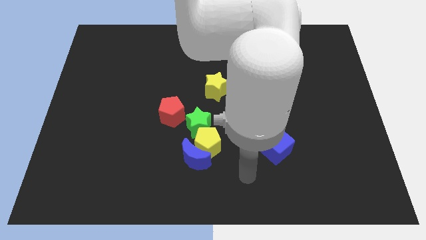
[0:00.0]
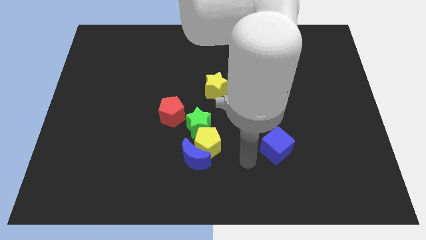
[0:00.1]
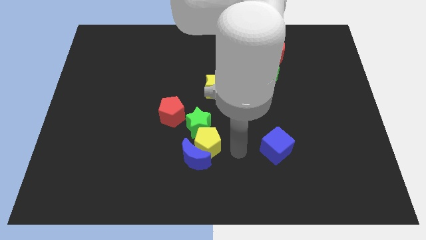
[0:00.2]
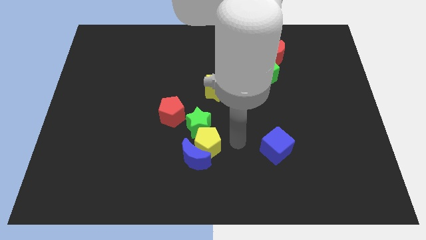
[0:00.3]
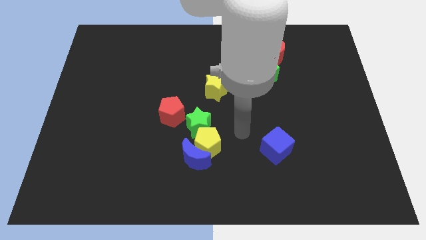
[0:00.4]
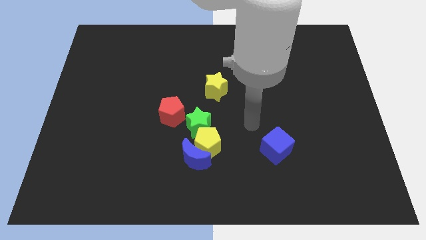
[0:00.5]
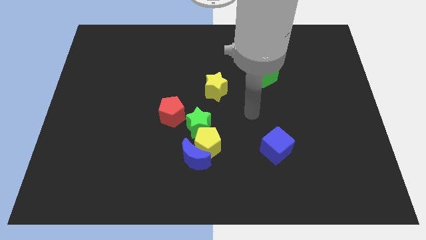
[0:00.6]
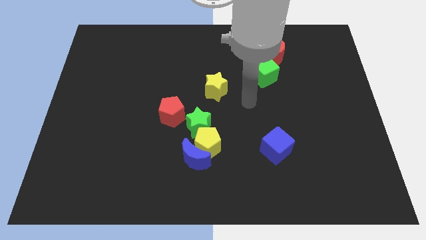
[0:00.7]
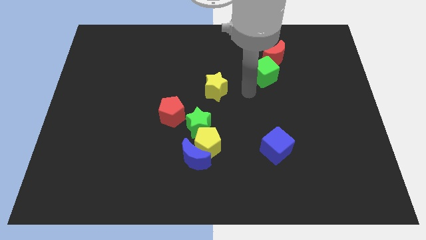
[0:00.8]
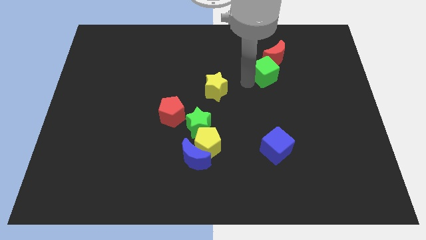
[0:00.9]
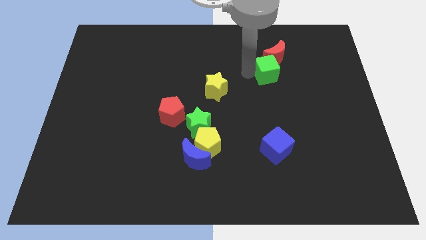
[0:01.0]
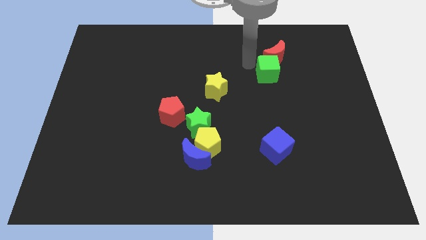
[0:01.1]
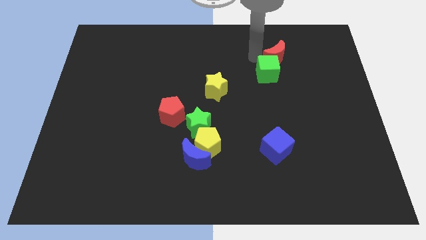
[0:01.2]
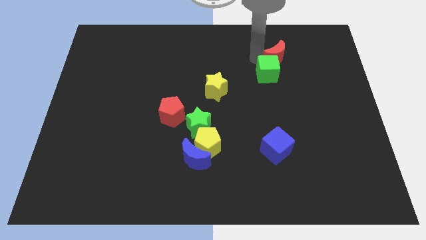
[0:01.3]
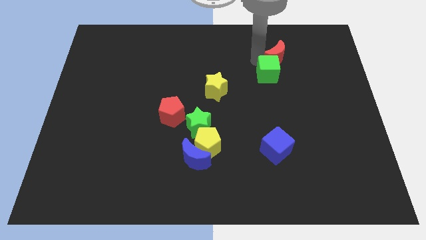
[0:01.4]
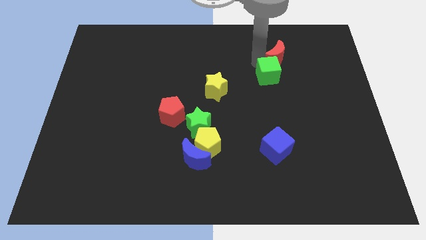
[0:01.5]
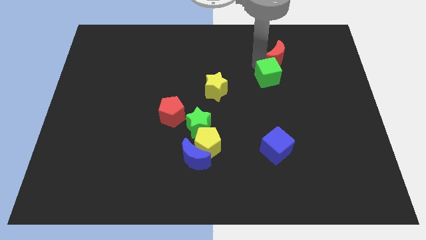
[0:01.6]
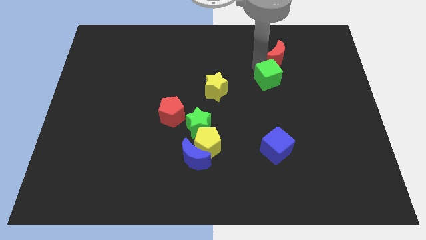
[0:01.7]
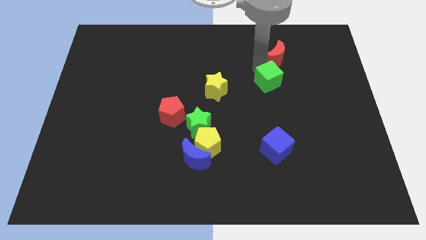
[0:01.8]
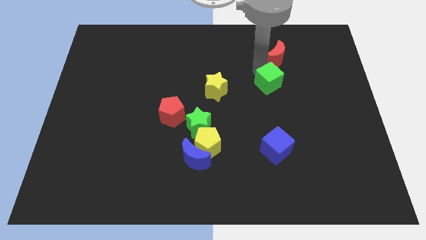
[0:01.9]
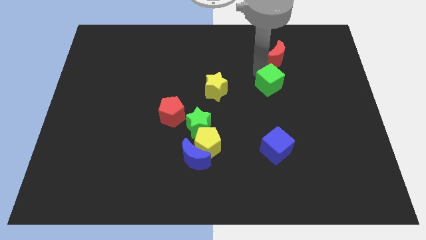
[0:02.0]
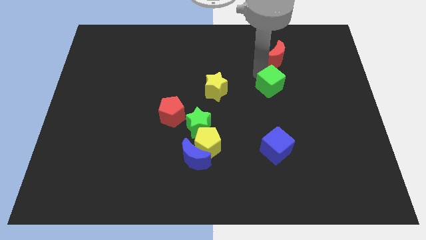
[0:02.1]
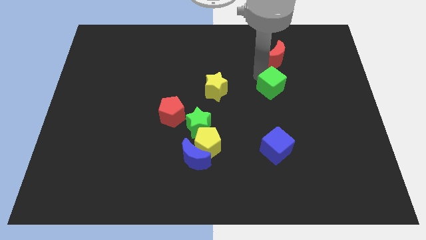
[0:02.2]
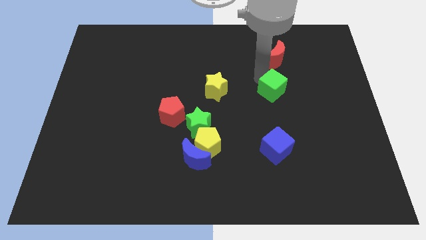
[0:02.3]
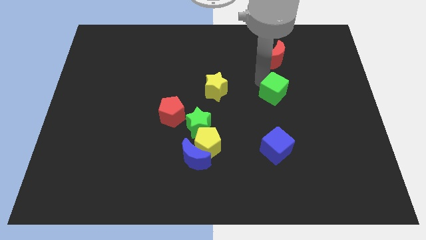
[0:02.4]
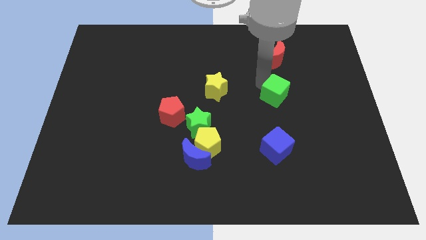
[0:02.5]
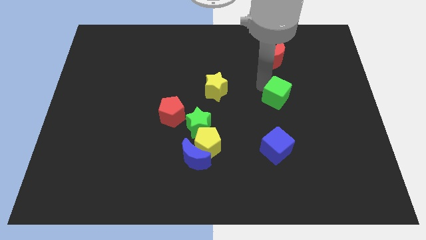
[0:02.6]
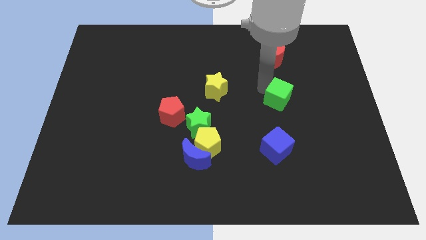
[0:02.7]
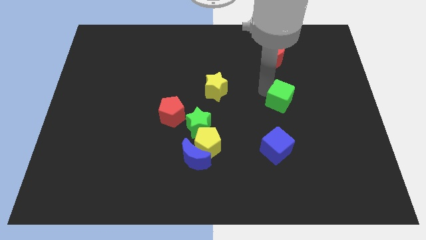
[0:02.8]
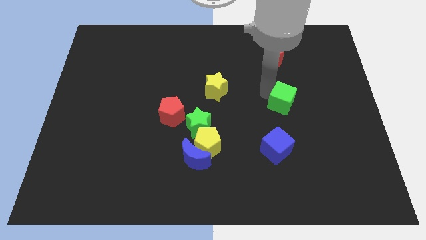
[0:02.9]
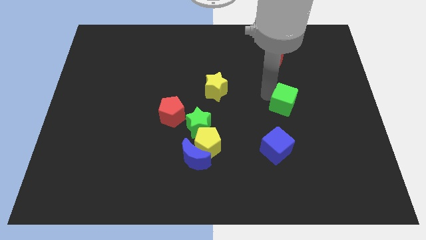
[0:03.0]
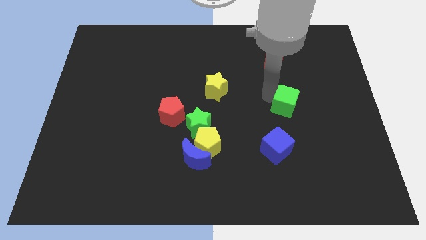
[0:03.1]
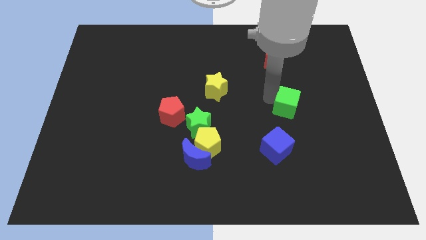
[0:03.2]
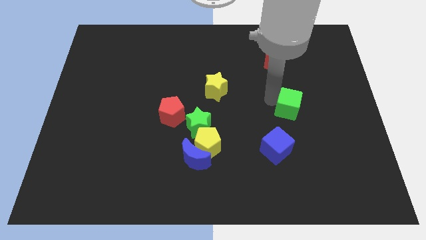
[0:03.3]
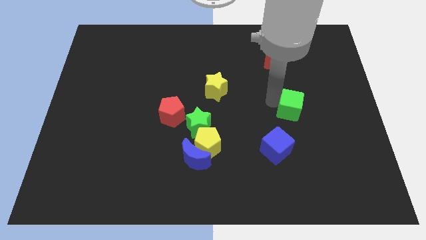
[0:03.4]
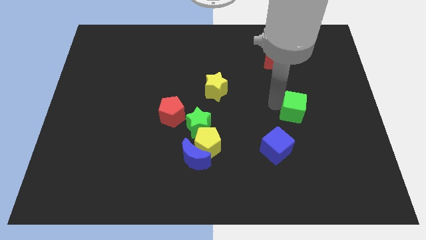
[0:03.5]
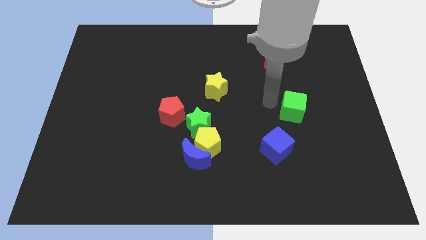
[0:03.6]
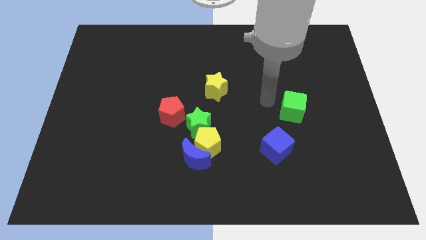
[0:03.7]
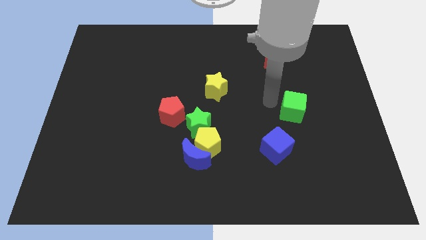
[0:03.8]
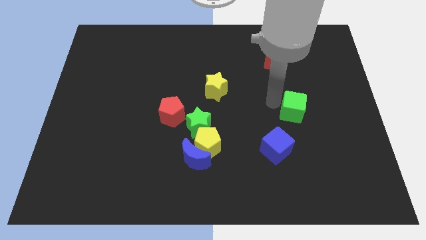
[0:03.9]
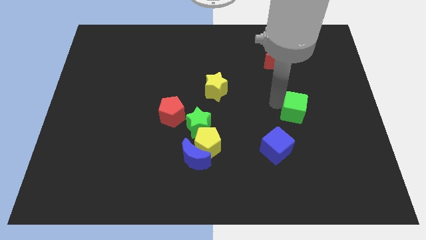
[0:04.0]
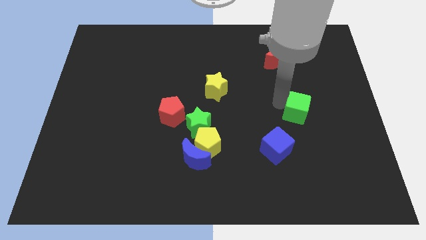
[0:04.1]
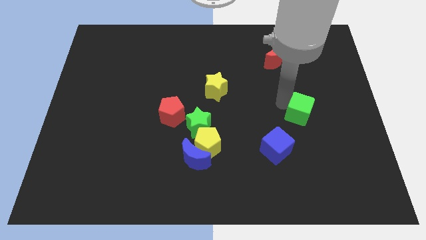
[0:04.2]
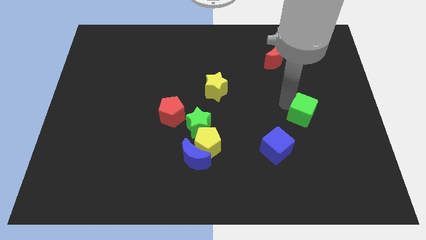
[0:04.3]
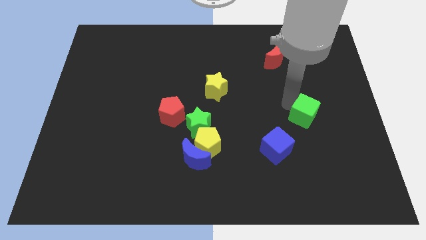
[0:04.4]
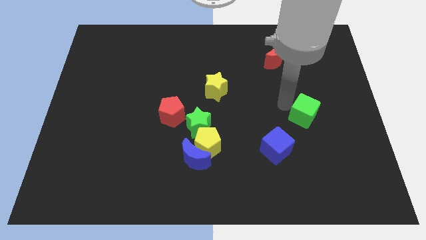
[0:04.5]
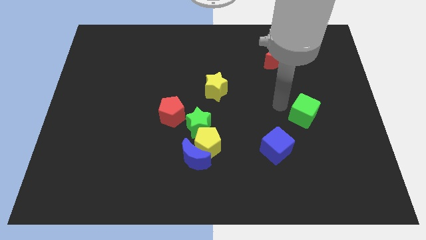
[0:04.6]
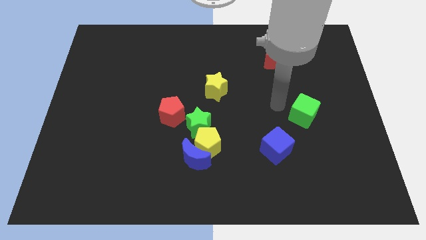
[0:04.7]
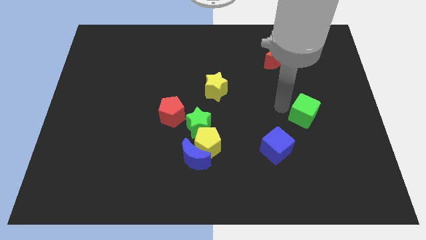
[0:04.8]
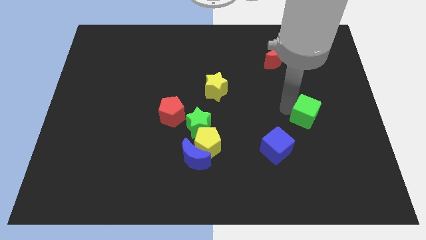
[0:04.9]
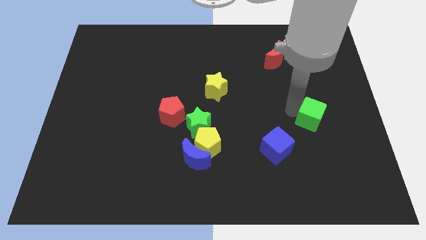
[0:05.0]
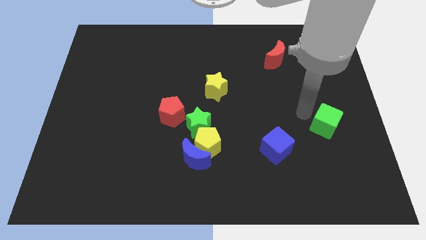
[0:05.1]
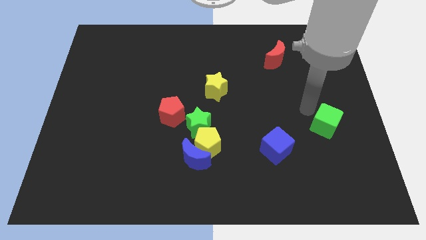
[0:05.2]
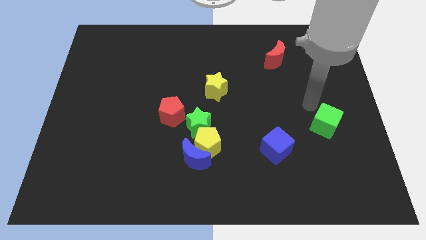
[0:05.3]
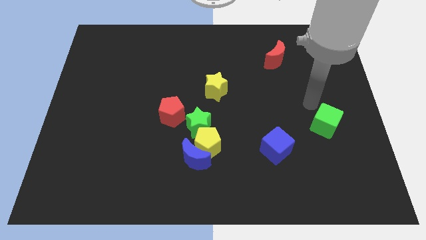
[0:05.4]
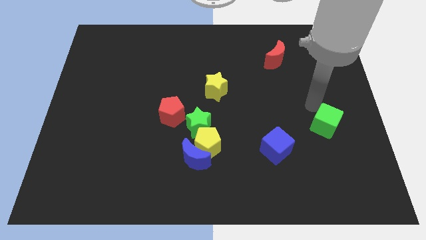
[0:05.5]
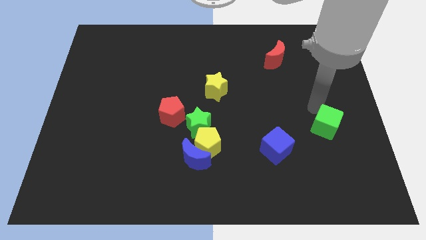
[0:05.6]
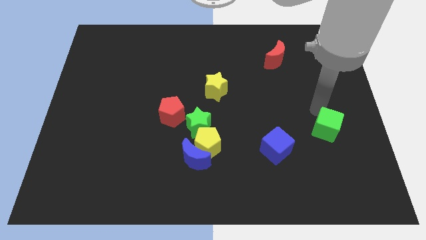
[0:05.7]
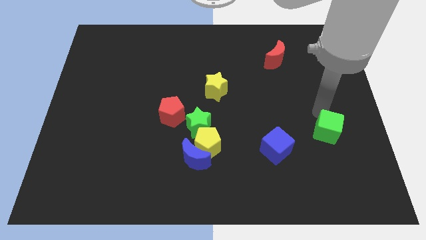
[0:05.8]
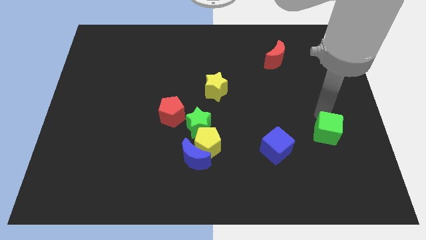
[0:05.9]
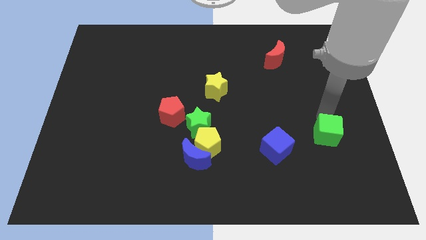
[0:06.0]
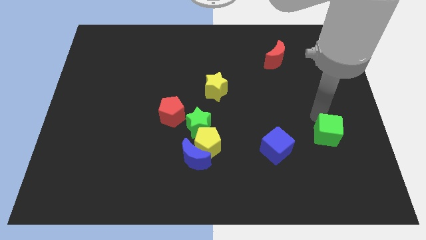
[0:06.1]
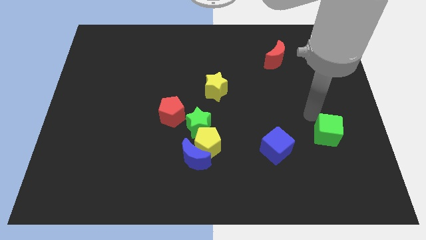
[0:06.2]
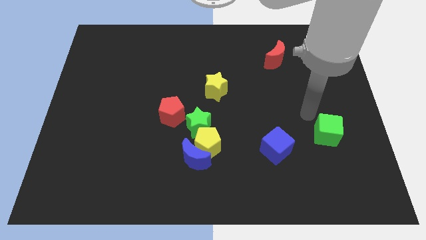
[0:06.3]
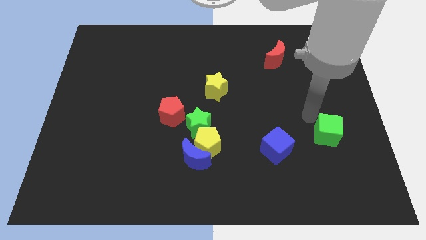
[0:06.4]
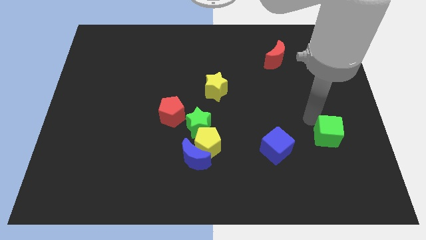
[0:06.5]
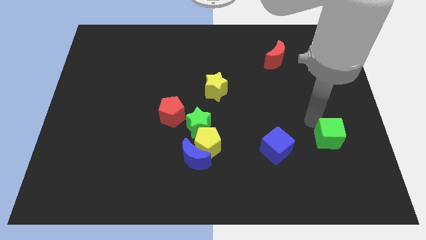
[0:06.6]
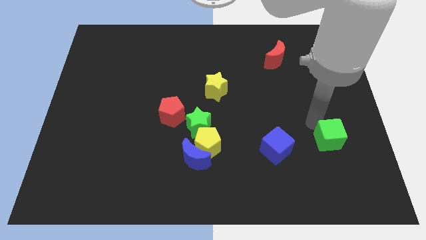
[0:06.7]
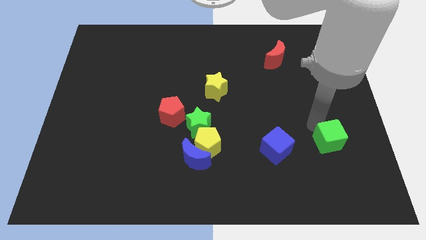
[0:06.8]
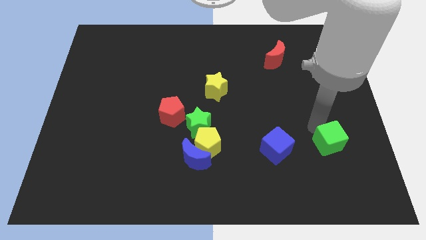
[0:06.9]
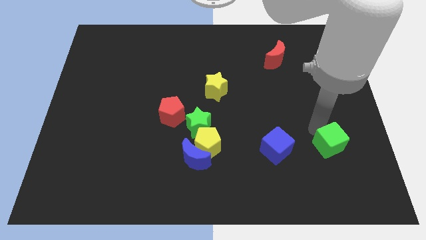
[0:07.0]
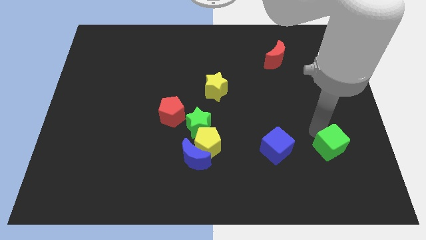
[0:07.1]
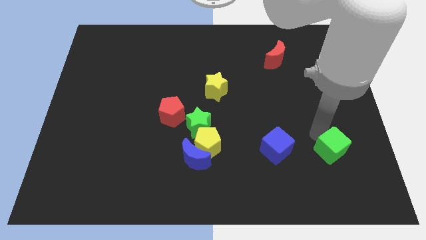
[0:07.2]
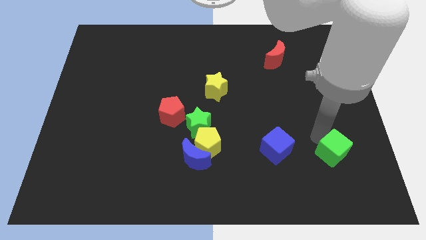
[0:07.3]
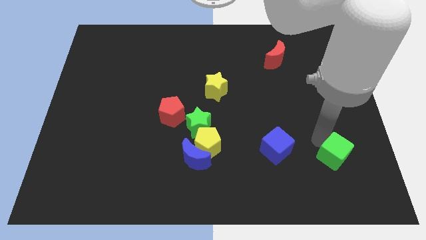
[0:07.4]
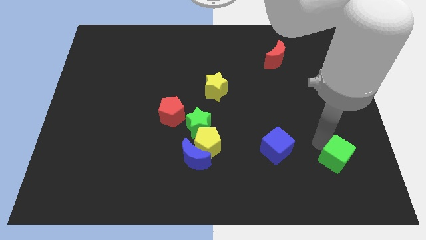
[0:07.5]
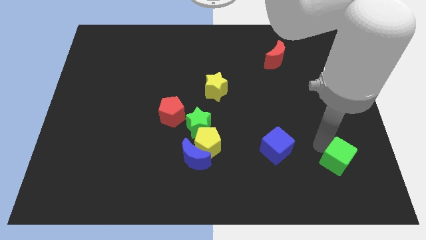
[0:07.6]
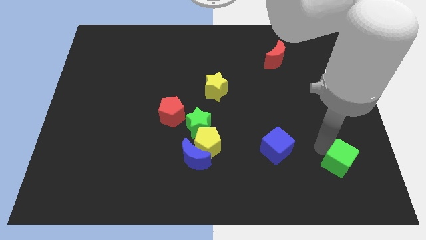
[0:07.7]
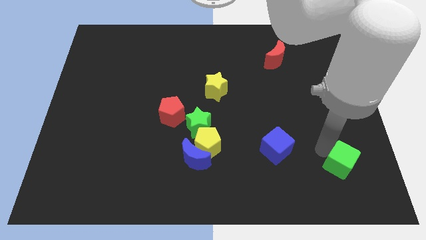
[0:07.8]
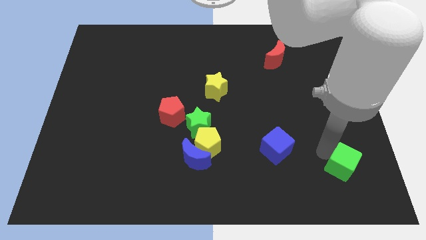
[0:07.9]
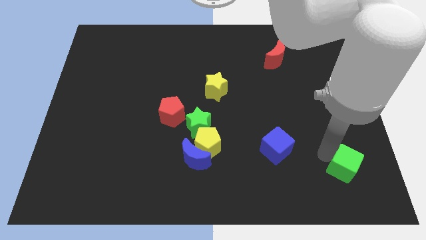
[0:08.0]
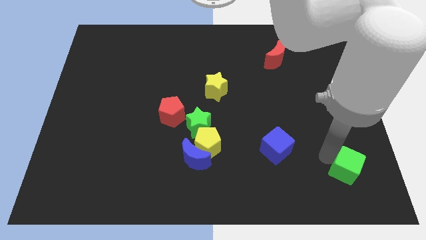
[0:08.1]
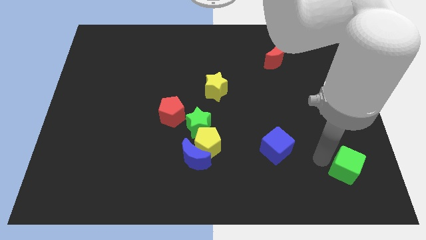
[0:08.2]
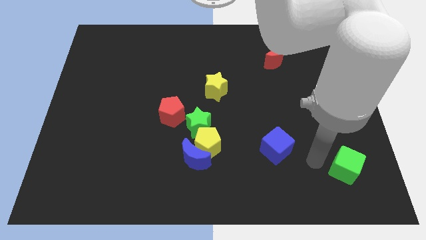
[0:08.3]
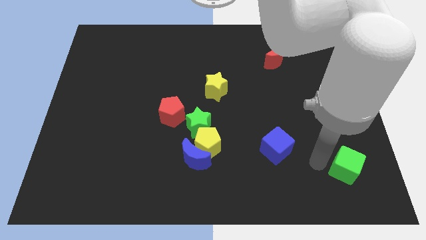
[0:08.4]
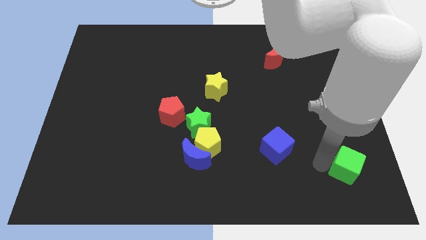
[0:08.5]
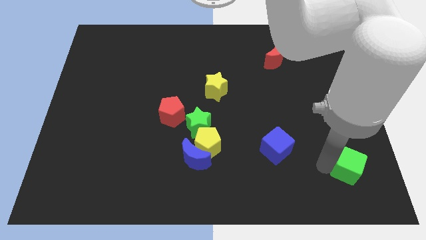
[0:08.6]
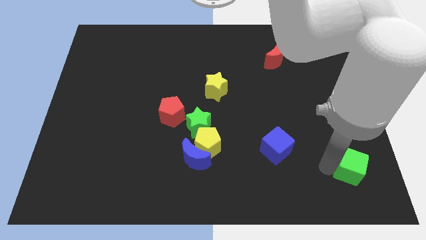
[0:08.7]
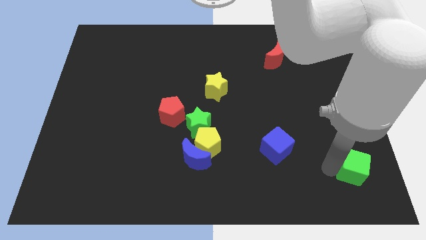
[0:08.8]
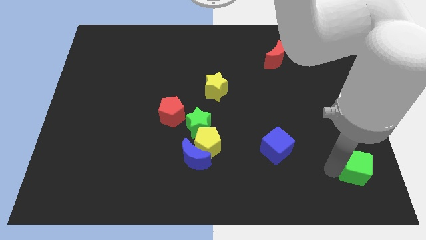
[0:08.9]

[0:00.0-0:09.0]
push the green cube to the lower right corner
